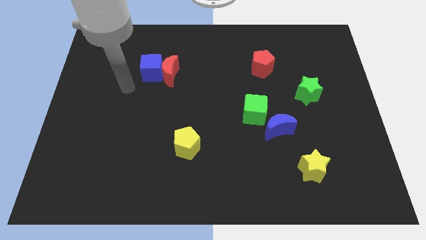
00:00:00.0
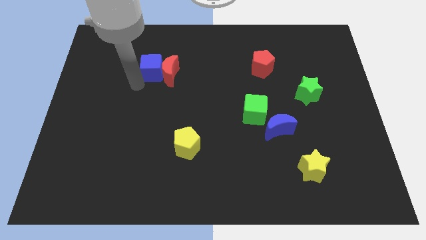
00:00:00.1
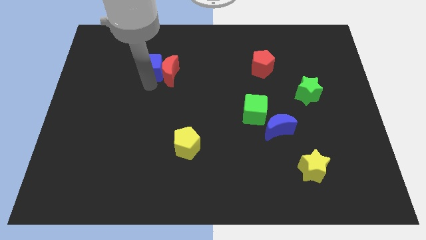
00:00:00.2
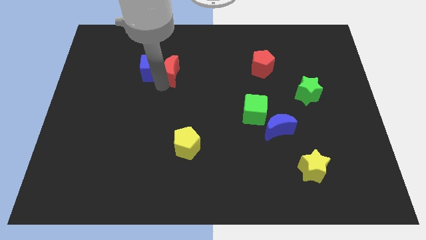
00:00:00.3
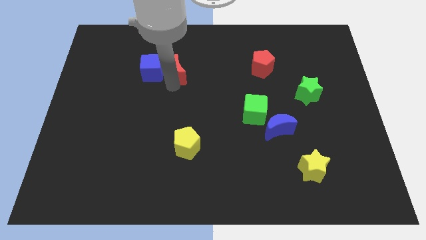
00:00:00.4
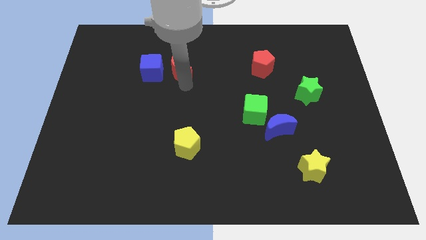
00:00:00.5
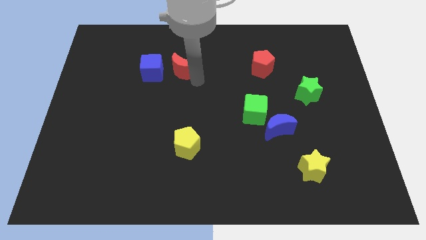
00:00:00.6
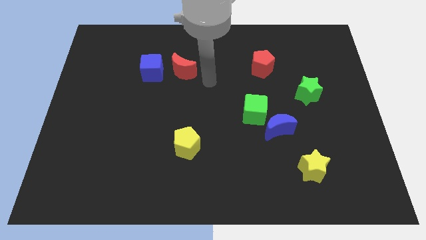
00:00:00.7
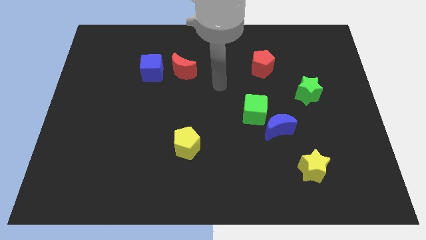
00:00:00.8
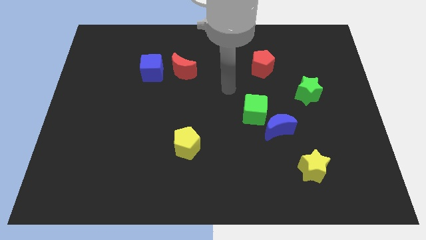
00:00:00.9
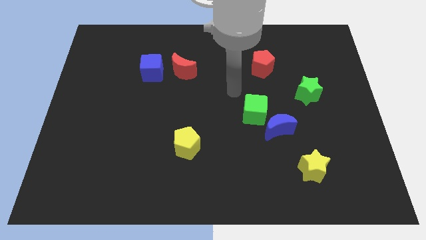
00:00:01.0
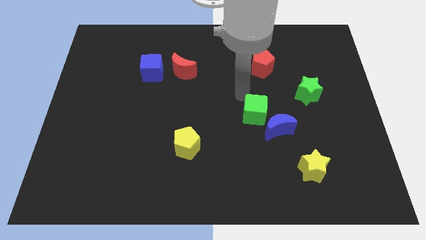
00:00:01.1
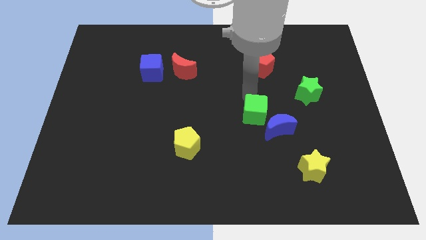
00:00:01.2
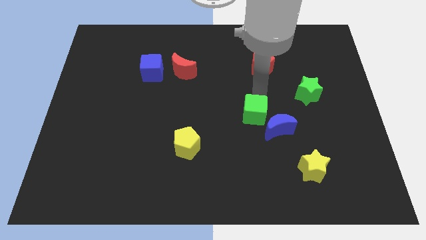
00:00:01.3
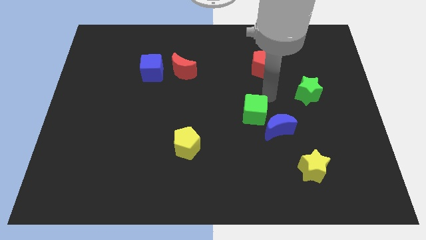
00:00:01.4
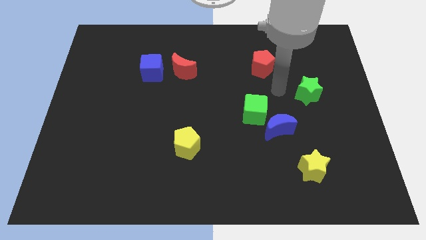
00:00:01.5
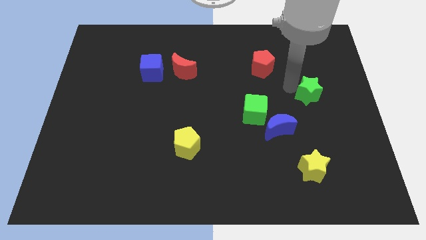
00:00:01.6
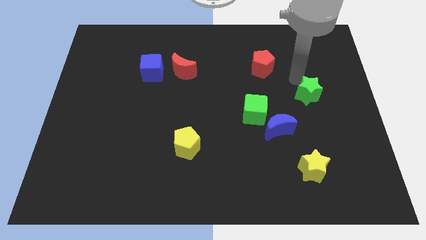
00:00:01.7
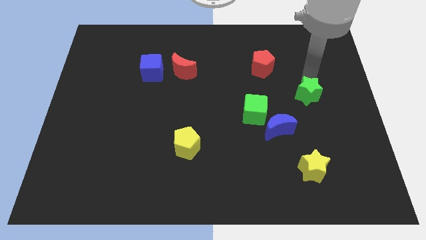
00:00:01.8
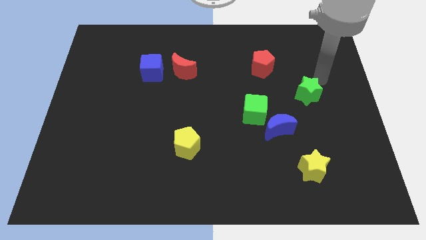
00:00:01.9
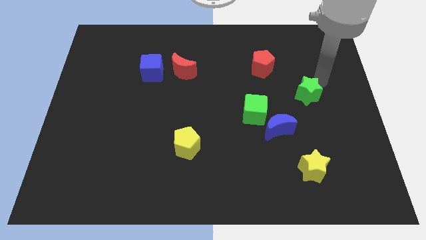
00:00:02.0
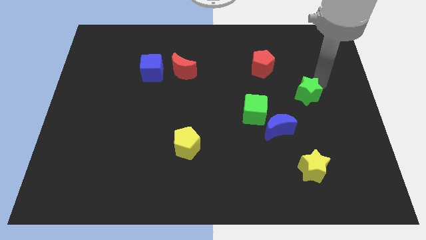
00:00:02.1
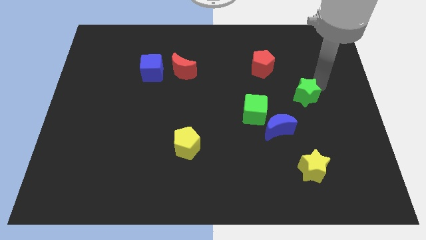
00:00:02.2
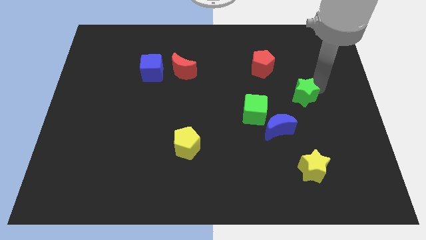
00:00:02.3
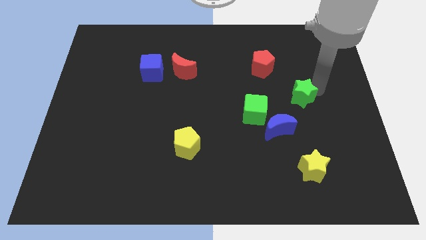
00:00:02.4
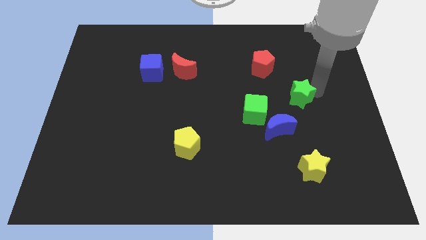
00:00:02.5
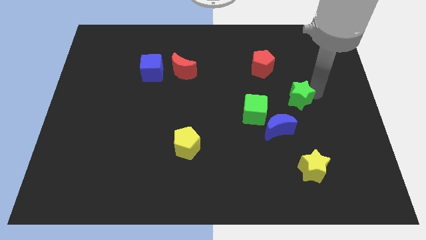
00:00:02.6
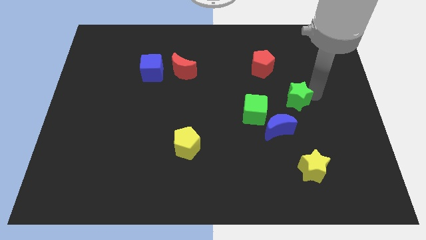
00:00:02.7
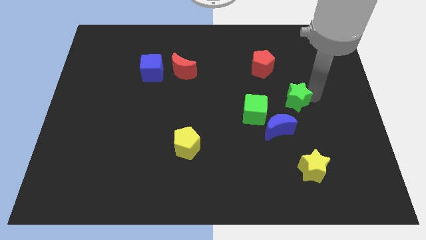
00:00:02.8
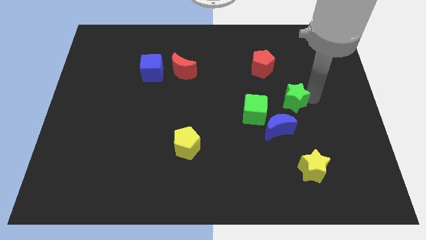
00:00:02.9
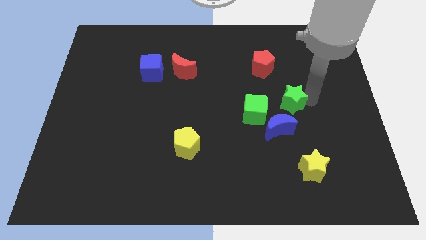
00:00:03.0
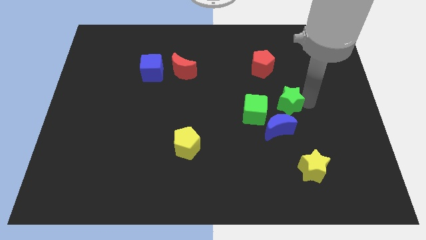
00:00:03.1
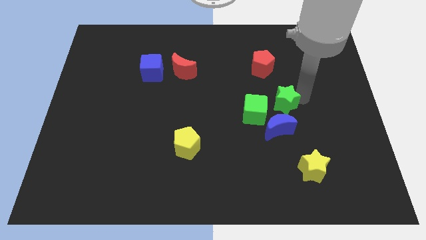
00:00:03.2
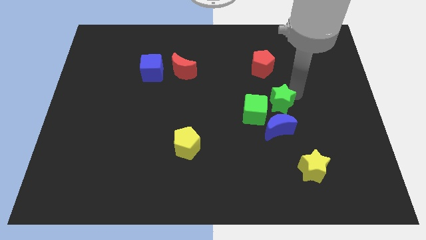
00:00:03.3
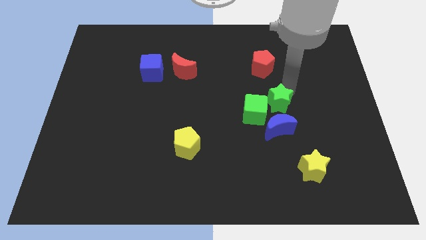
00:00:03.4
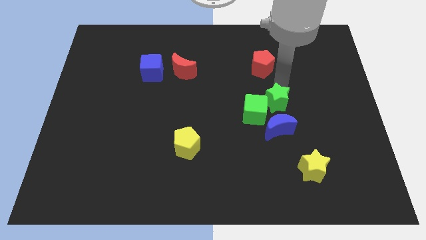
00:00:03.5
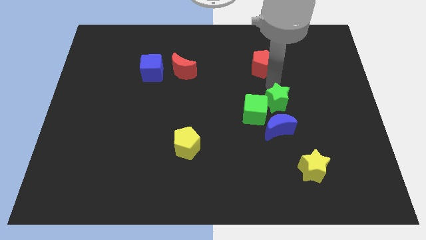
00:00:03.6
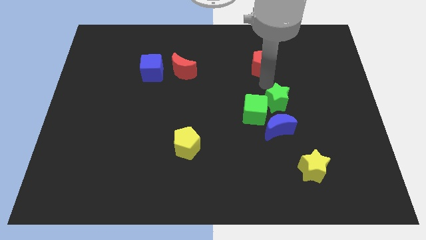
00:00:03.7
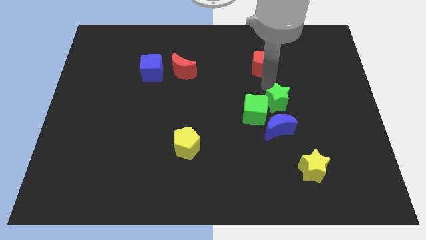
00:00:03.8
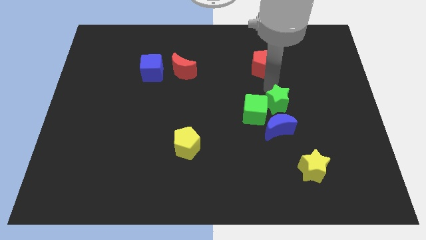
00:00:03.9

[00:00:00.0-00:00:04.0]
slightly push the green star diagonally down and left

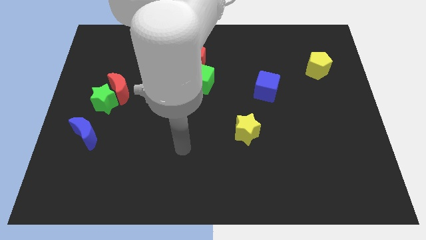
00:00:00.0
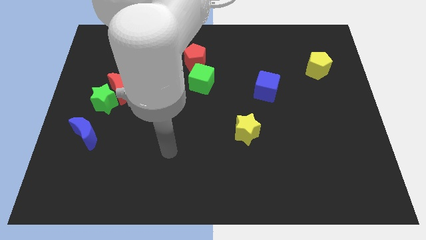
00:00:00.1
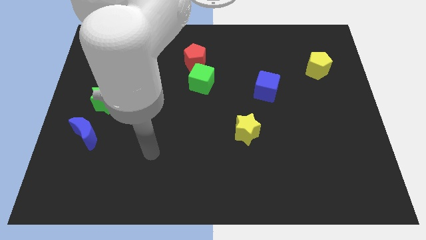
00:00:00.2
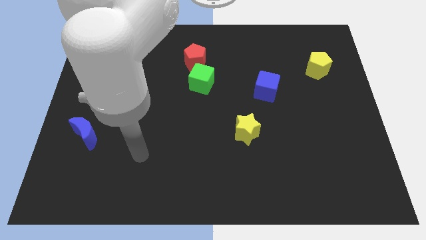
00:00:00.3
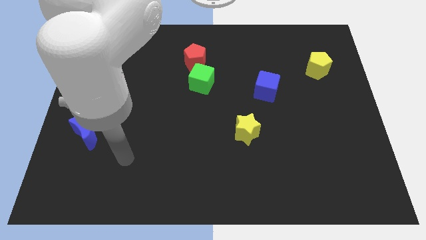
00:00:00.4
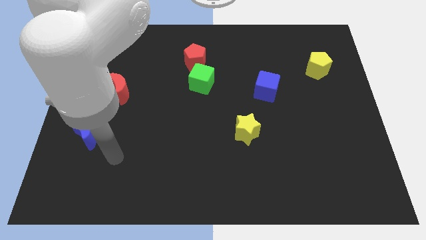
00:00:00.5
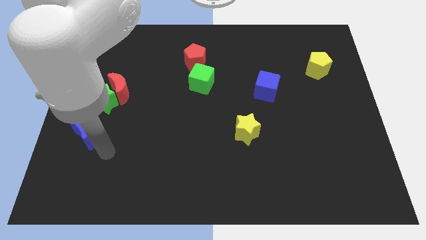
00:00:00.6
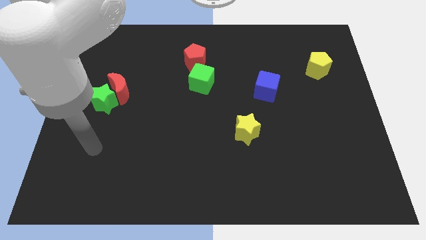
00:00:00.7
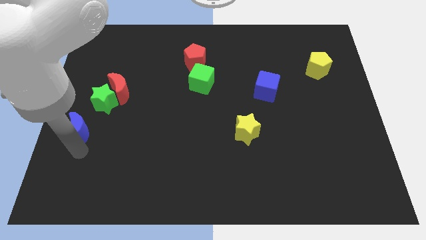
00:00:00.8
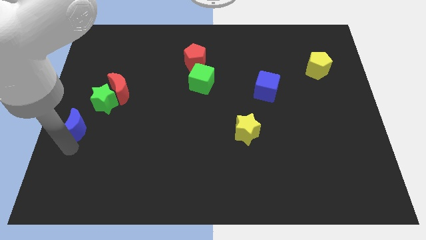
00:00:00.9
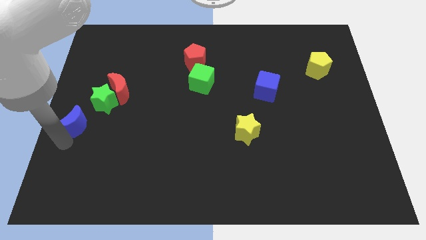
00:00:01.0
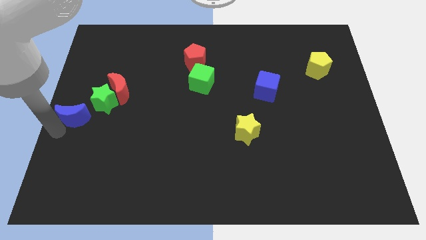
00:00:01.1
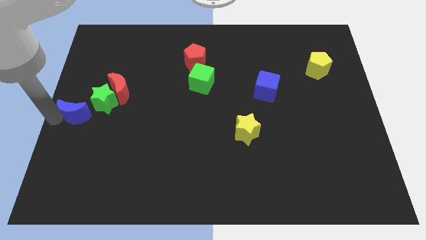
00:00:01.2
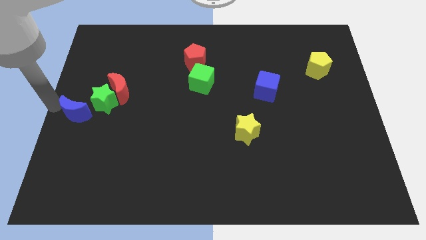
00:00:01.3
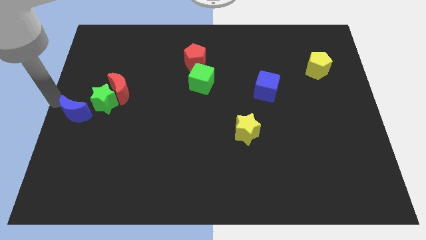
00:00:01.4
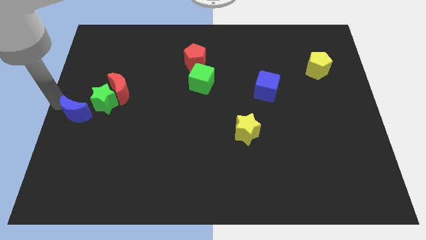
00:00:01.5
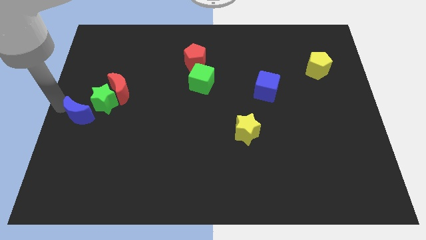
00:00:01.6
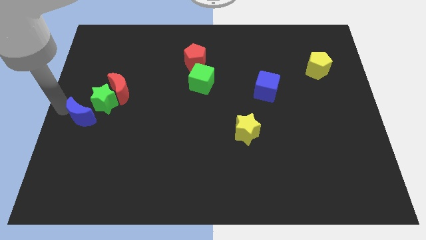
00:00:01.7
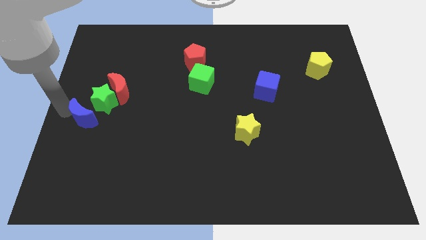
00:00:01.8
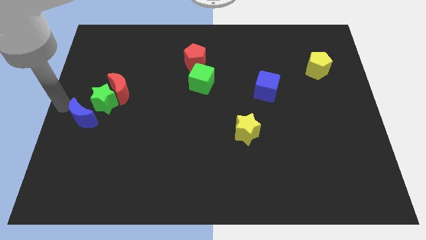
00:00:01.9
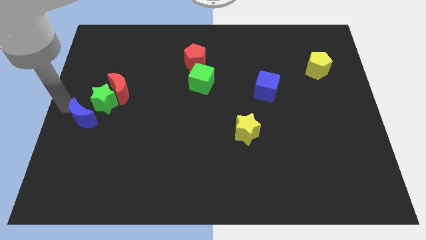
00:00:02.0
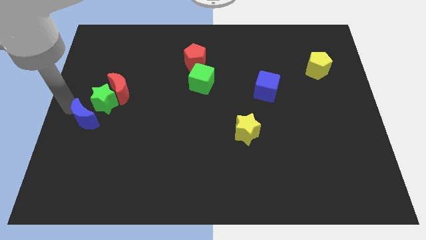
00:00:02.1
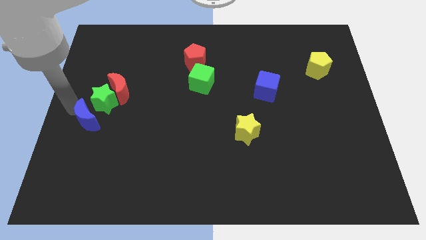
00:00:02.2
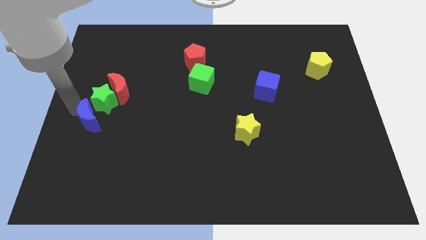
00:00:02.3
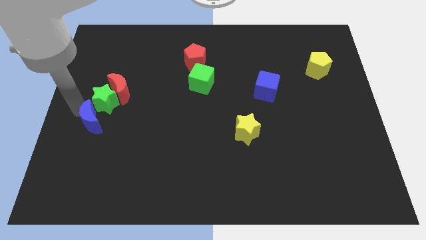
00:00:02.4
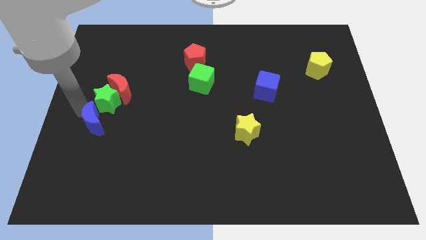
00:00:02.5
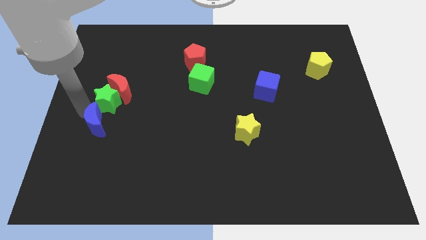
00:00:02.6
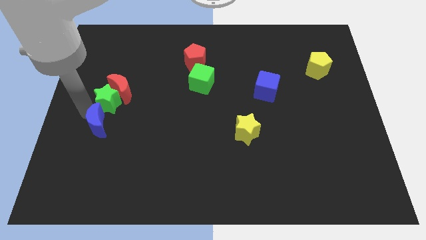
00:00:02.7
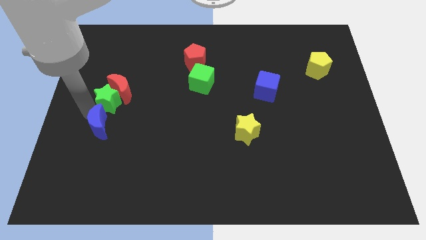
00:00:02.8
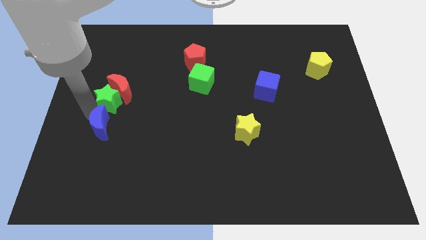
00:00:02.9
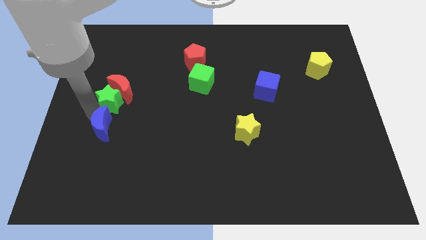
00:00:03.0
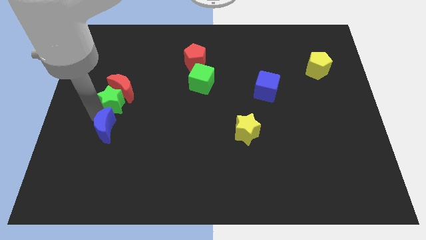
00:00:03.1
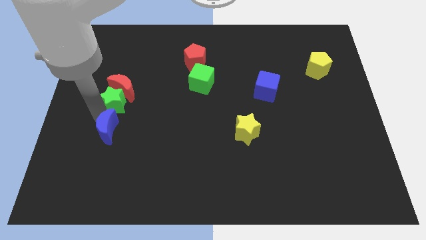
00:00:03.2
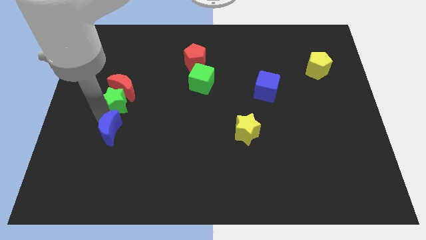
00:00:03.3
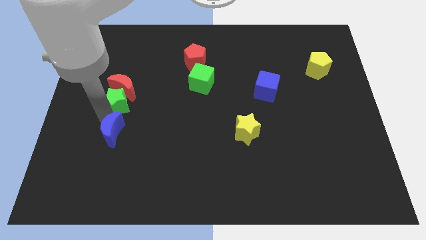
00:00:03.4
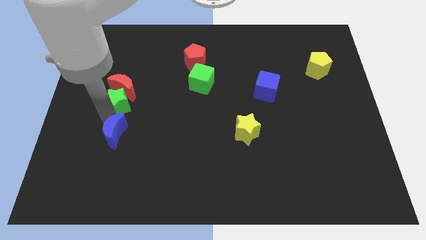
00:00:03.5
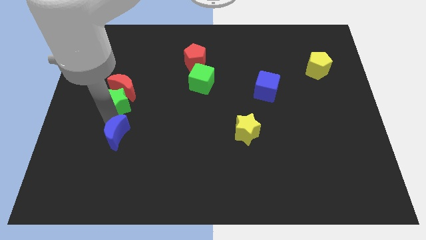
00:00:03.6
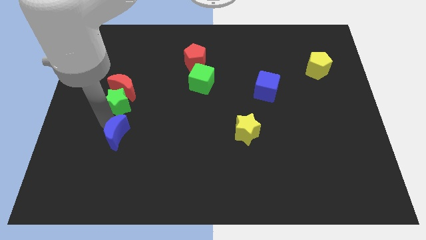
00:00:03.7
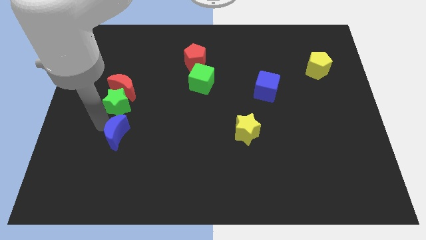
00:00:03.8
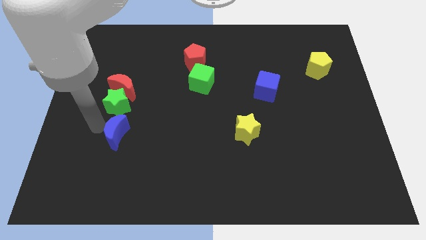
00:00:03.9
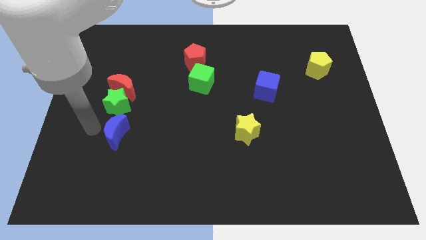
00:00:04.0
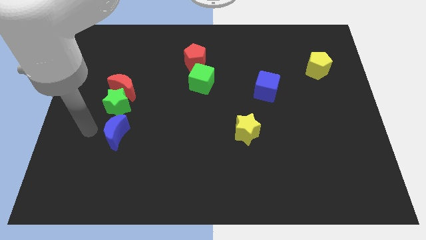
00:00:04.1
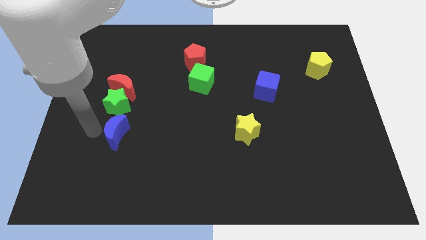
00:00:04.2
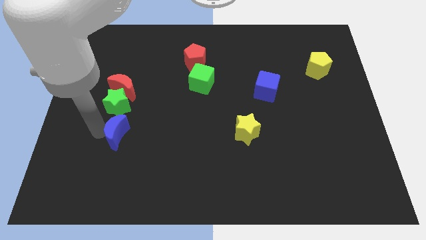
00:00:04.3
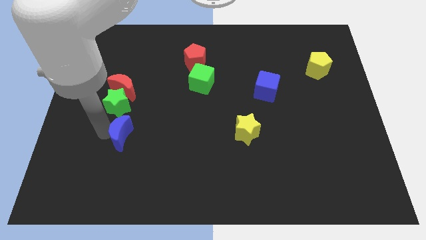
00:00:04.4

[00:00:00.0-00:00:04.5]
slide the blue moon a bit to the right
